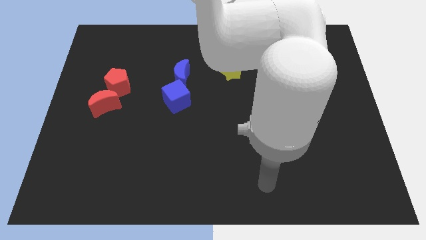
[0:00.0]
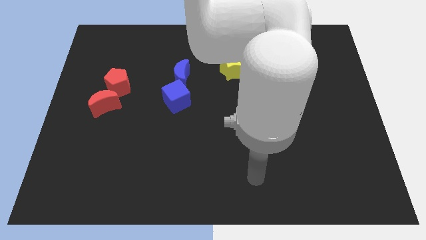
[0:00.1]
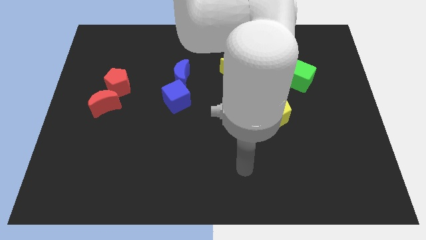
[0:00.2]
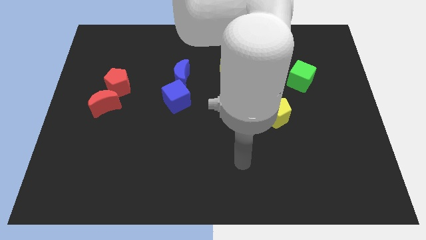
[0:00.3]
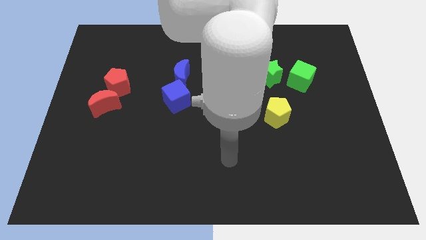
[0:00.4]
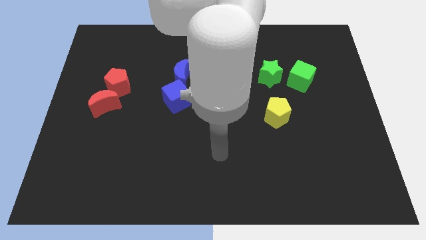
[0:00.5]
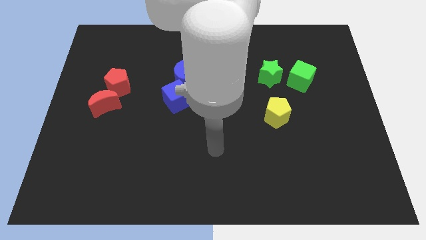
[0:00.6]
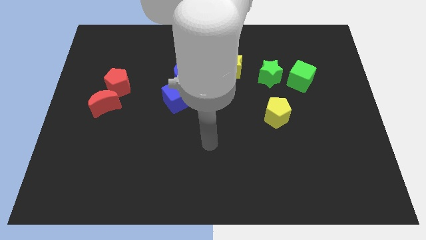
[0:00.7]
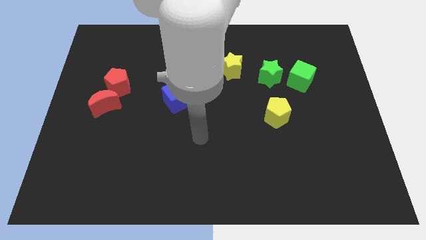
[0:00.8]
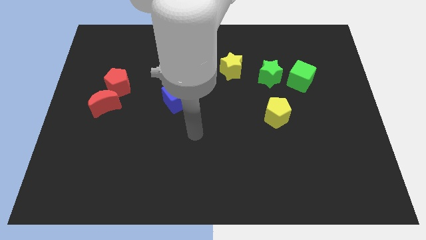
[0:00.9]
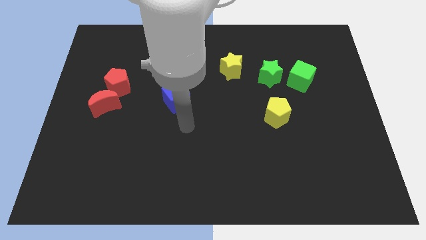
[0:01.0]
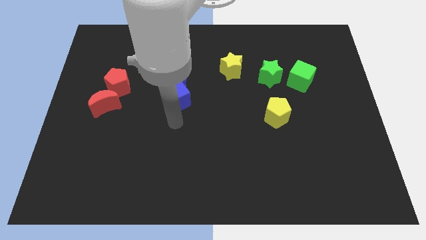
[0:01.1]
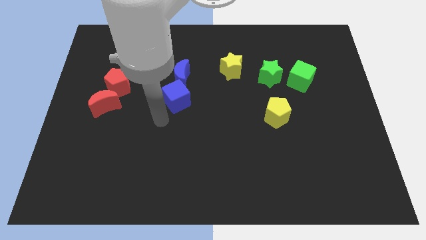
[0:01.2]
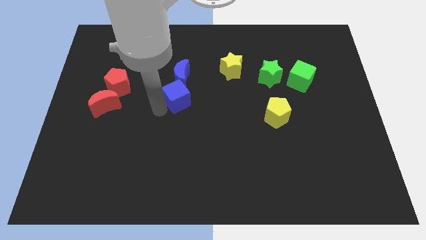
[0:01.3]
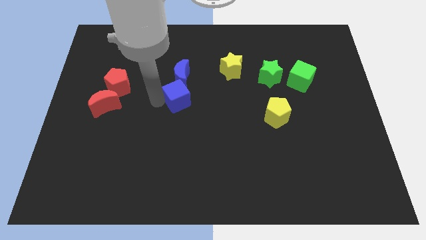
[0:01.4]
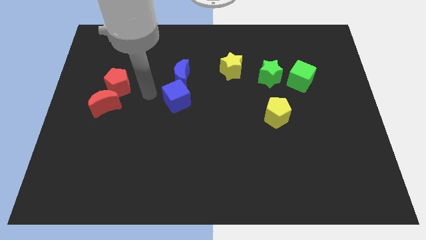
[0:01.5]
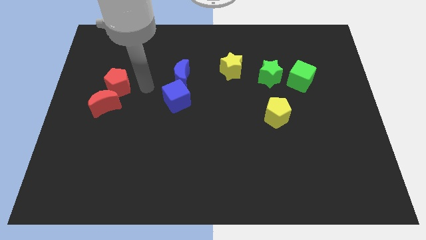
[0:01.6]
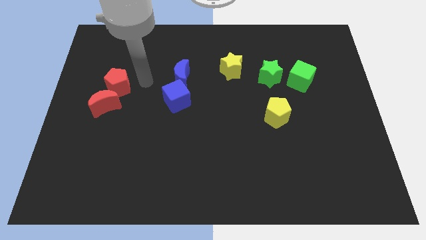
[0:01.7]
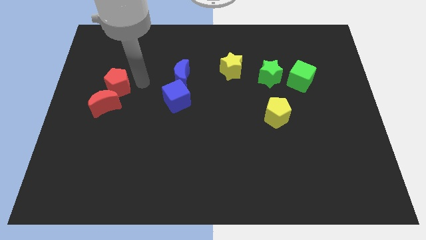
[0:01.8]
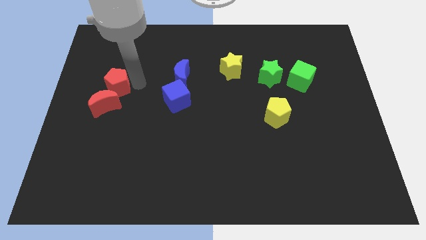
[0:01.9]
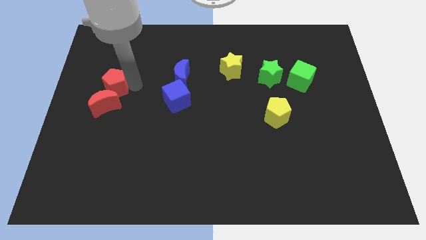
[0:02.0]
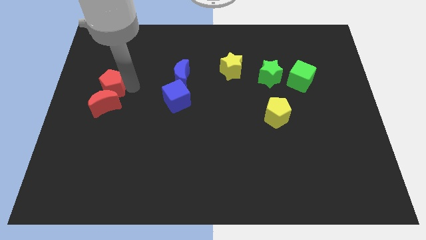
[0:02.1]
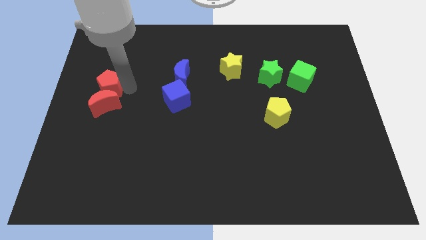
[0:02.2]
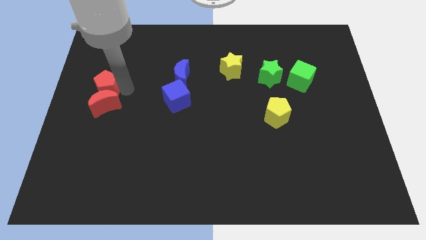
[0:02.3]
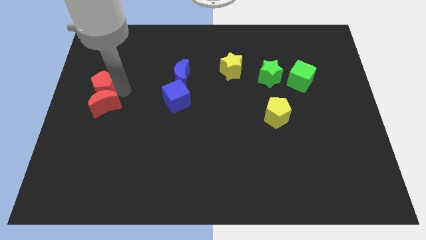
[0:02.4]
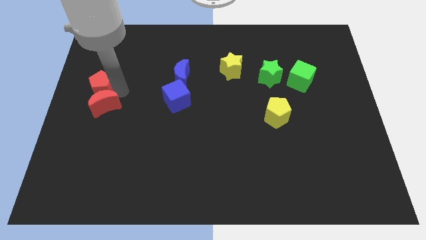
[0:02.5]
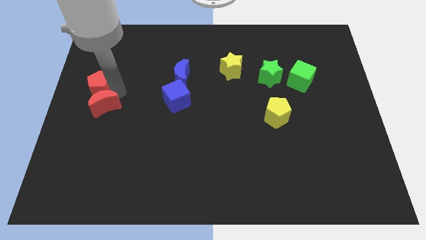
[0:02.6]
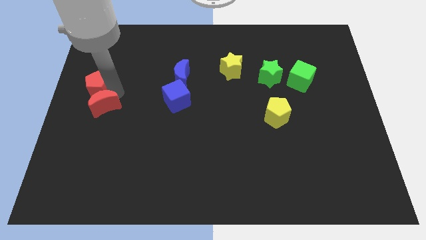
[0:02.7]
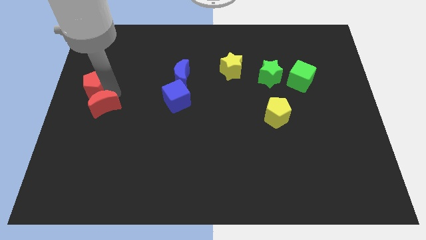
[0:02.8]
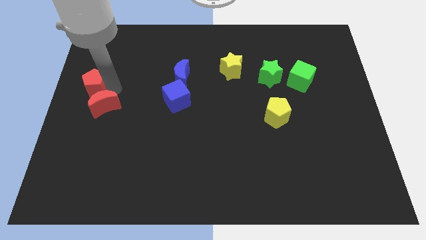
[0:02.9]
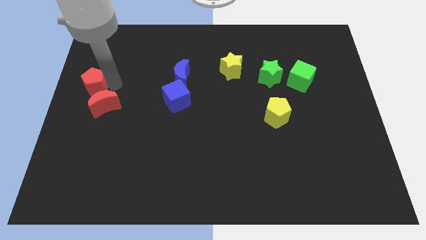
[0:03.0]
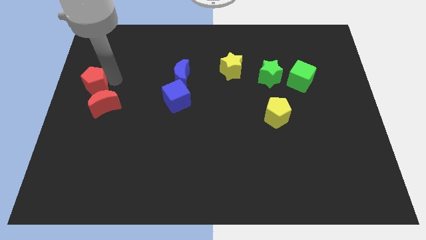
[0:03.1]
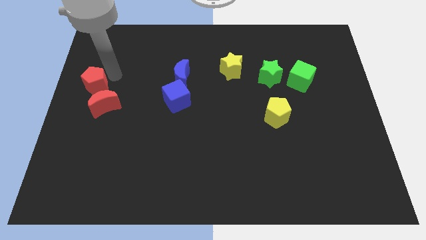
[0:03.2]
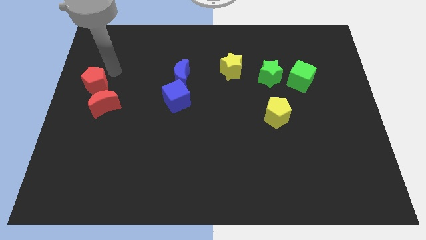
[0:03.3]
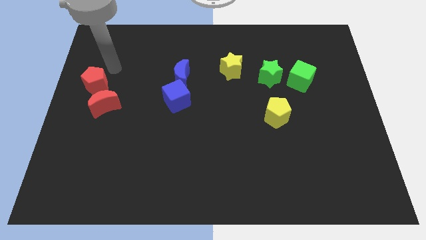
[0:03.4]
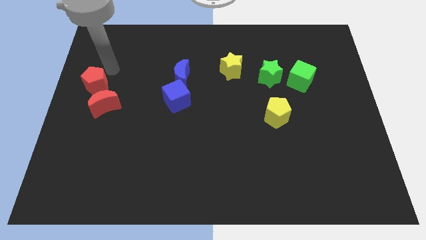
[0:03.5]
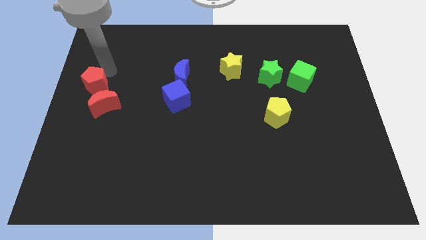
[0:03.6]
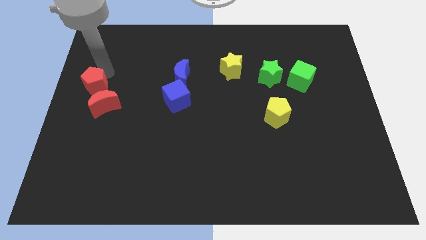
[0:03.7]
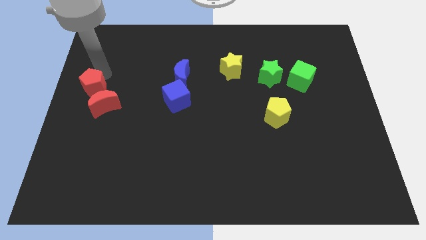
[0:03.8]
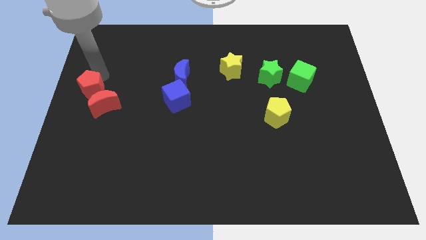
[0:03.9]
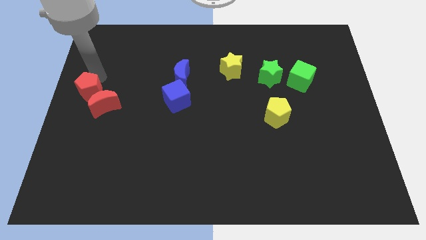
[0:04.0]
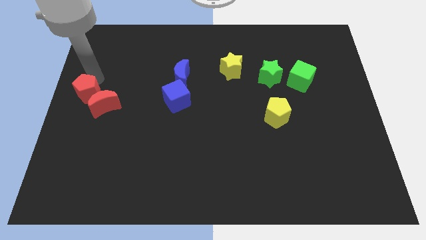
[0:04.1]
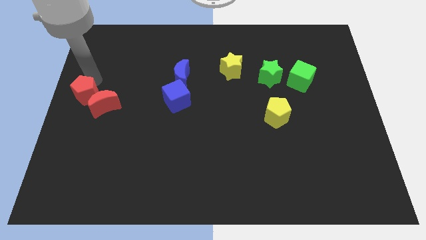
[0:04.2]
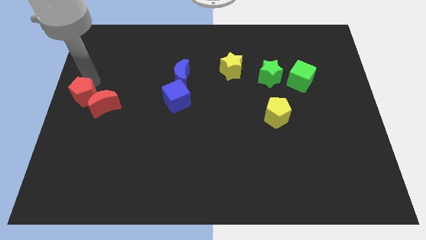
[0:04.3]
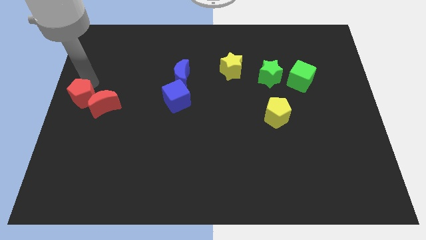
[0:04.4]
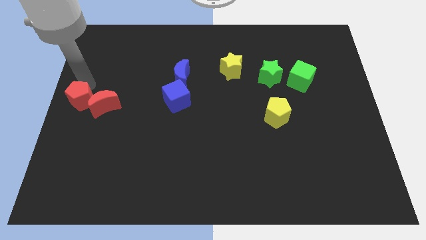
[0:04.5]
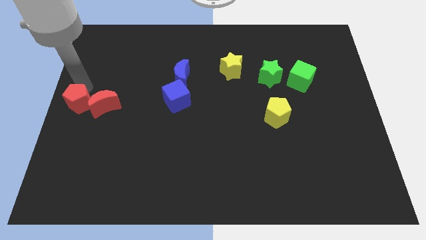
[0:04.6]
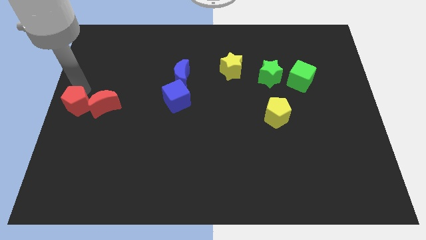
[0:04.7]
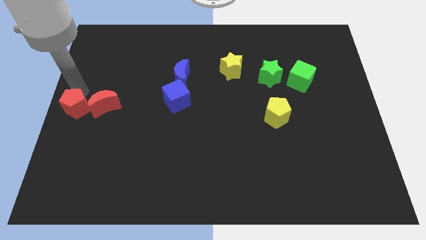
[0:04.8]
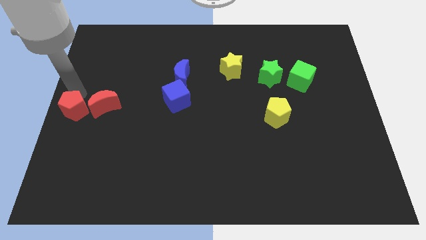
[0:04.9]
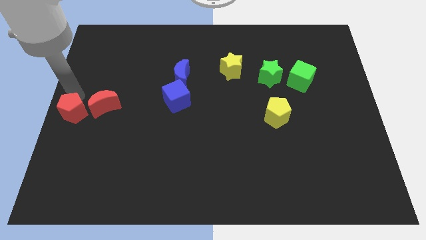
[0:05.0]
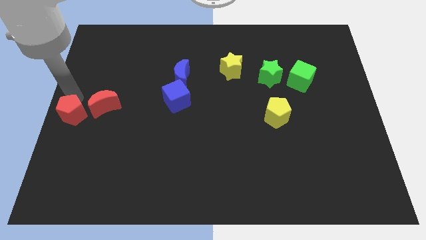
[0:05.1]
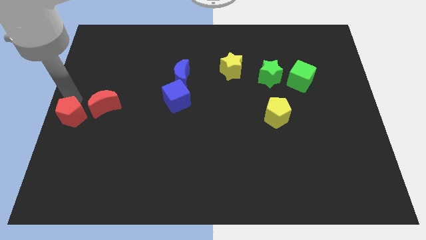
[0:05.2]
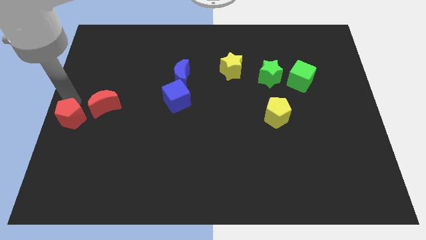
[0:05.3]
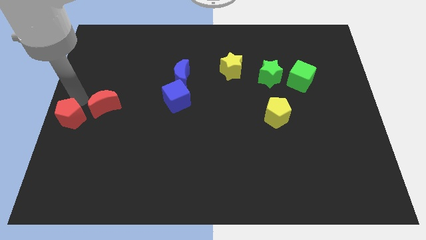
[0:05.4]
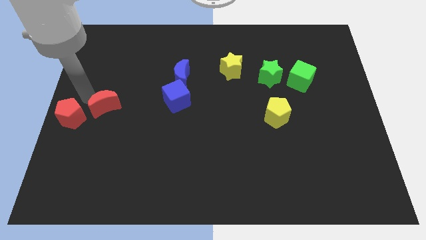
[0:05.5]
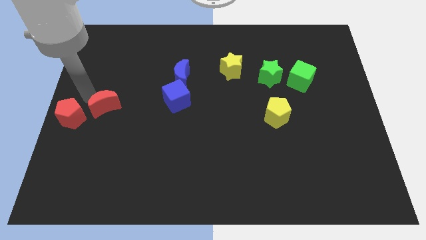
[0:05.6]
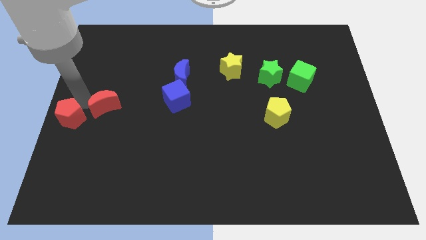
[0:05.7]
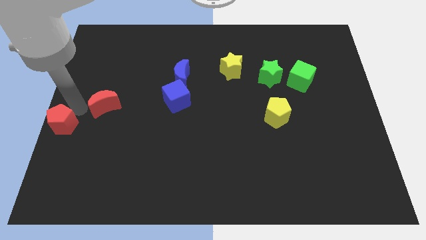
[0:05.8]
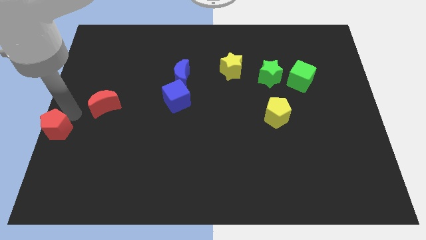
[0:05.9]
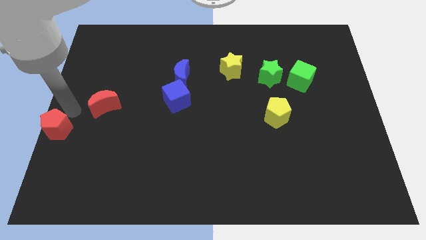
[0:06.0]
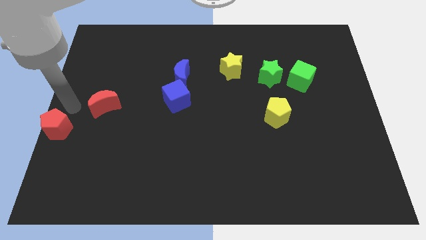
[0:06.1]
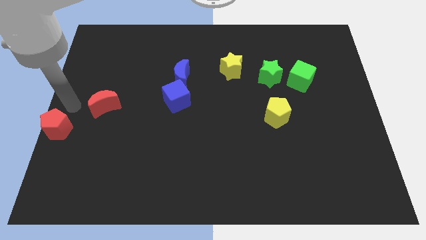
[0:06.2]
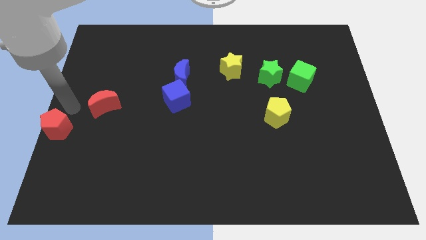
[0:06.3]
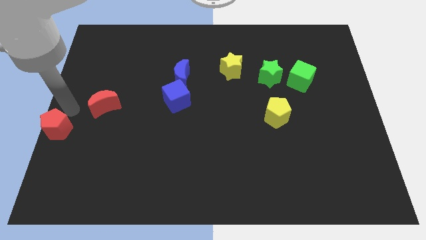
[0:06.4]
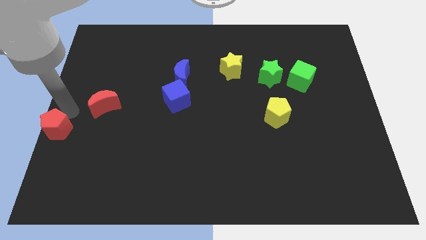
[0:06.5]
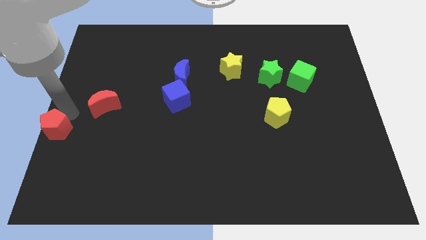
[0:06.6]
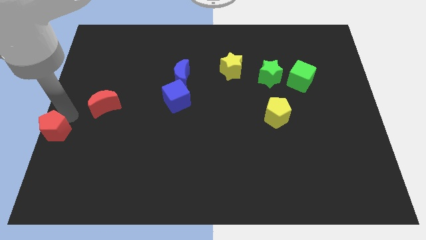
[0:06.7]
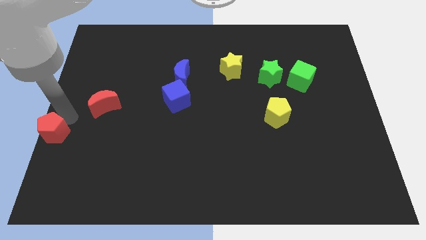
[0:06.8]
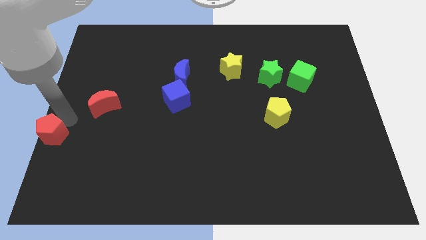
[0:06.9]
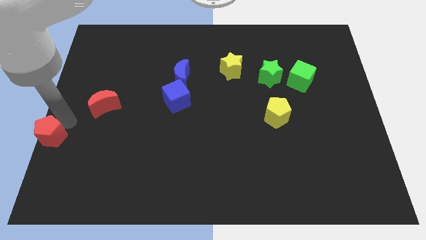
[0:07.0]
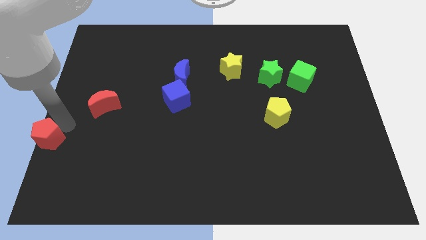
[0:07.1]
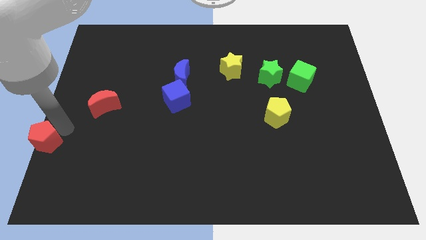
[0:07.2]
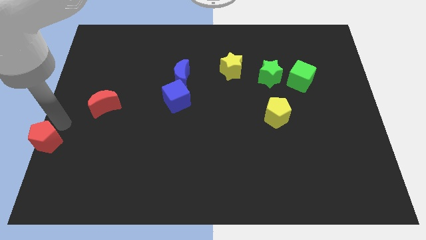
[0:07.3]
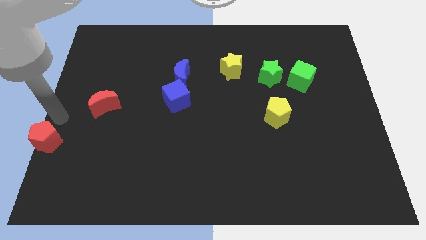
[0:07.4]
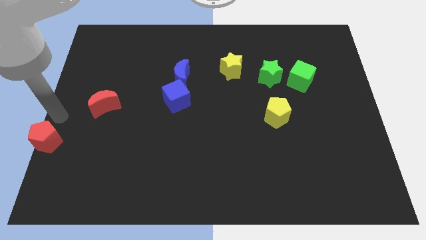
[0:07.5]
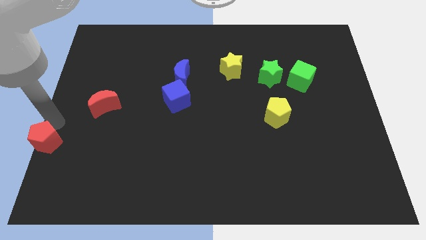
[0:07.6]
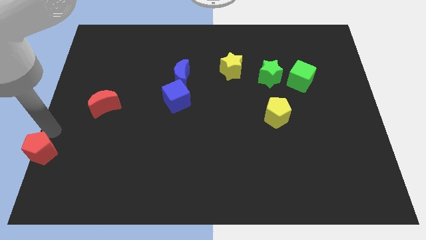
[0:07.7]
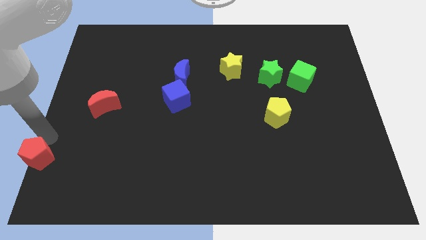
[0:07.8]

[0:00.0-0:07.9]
move the red pentagon to the bottom left
